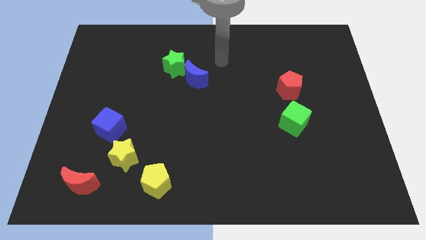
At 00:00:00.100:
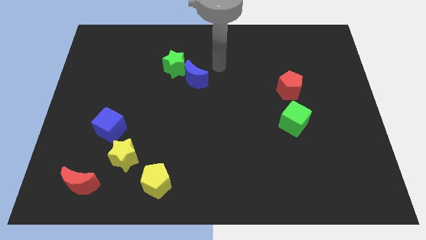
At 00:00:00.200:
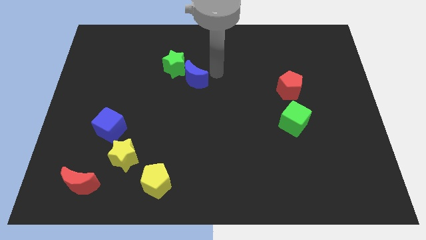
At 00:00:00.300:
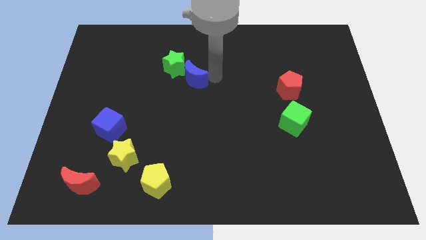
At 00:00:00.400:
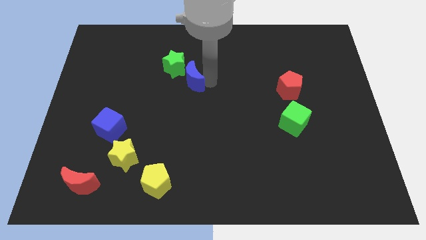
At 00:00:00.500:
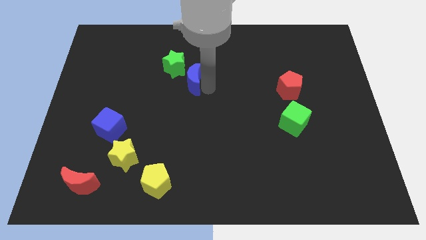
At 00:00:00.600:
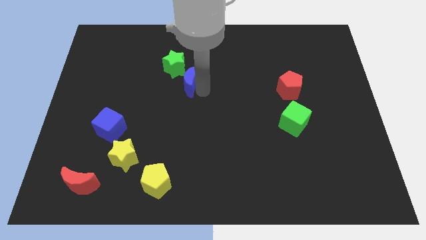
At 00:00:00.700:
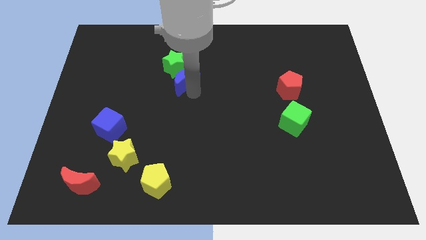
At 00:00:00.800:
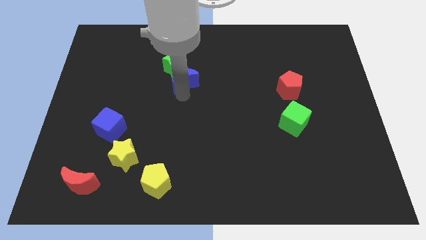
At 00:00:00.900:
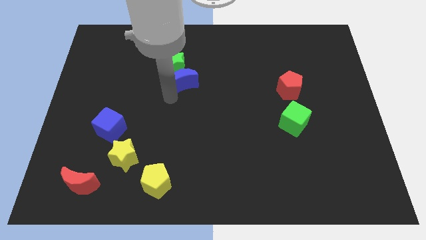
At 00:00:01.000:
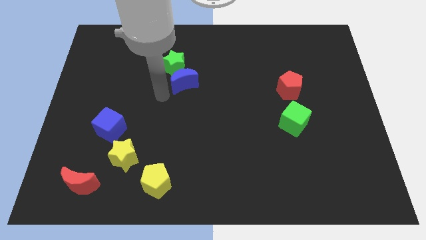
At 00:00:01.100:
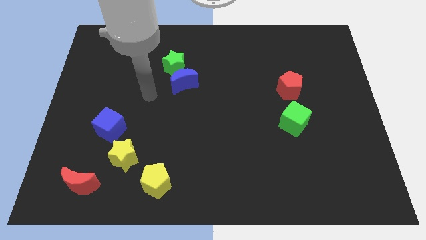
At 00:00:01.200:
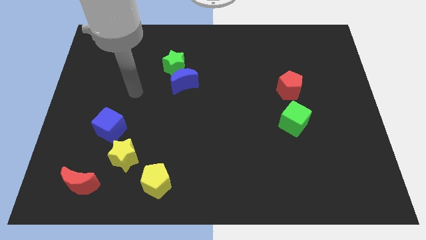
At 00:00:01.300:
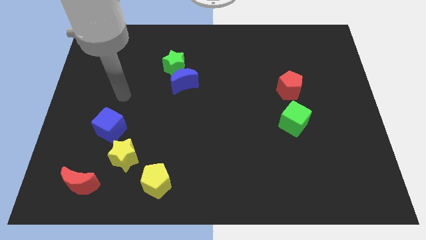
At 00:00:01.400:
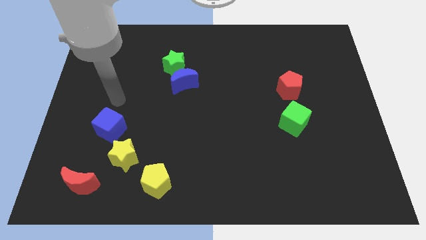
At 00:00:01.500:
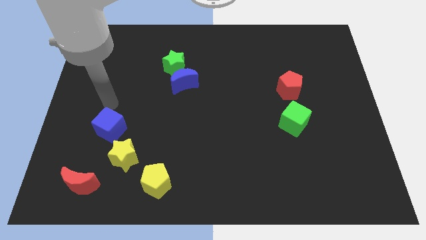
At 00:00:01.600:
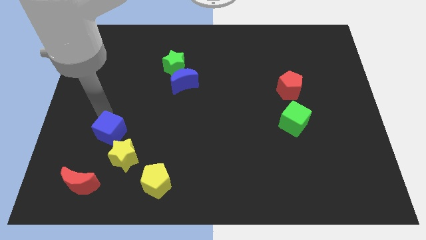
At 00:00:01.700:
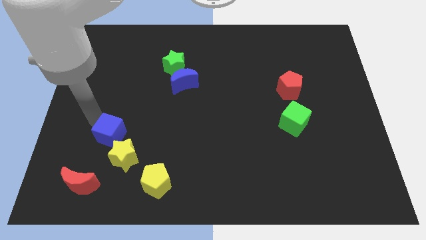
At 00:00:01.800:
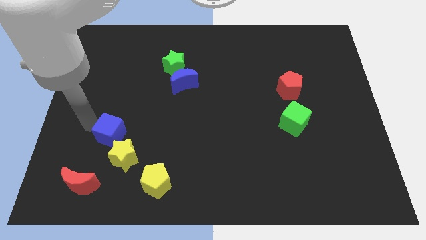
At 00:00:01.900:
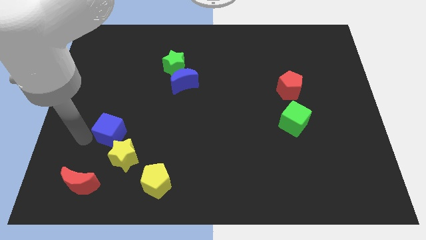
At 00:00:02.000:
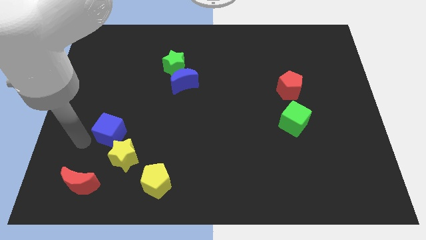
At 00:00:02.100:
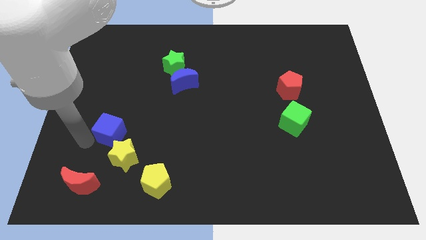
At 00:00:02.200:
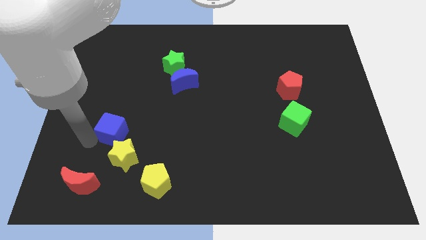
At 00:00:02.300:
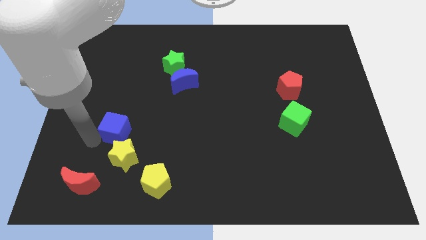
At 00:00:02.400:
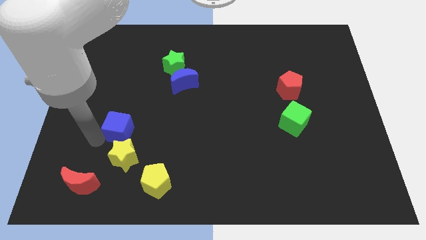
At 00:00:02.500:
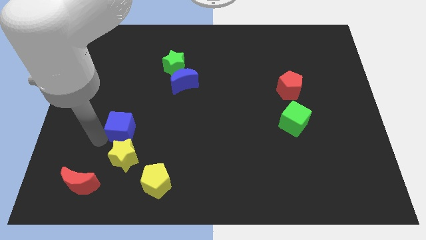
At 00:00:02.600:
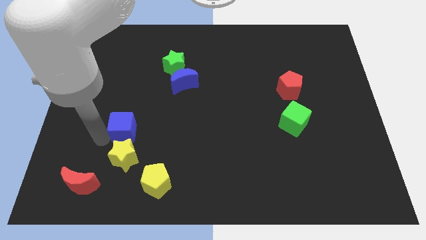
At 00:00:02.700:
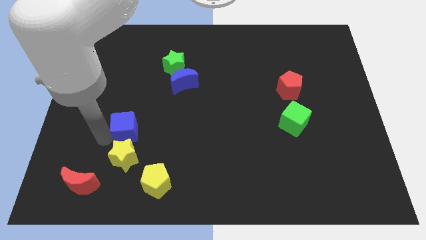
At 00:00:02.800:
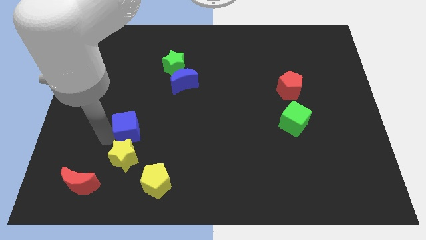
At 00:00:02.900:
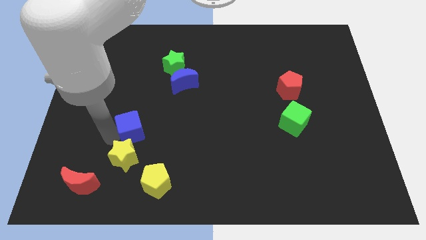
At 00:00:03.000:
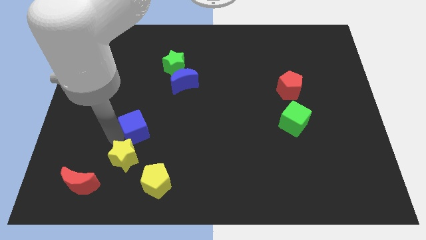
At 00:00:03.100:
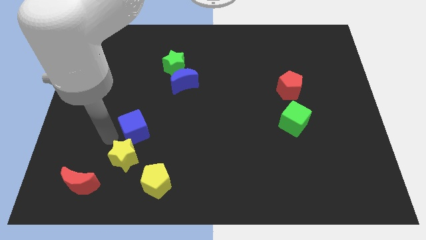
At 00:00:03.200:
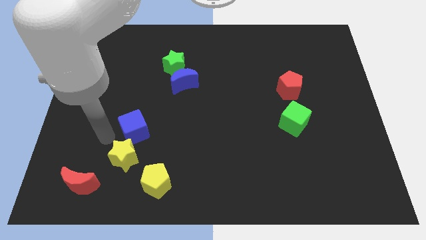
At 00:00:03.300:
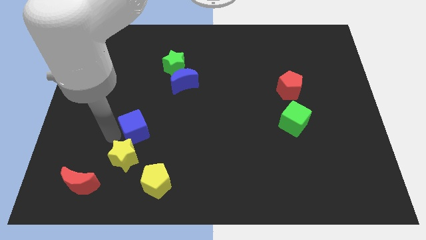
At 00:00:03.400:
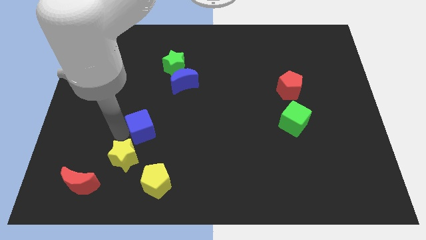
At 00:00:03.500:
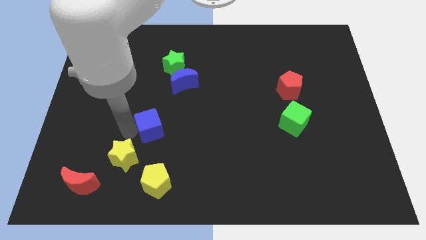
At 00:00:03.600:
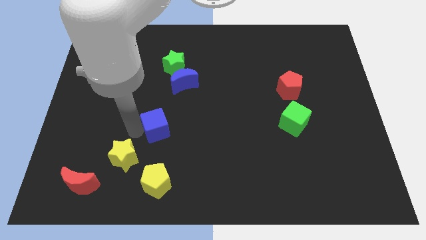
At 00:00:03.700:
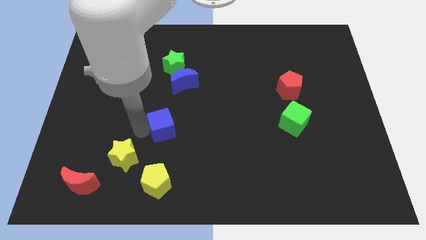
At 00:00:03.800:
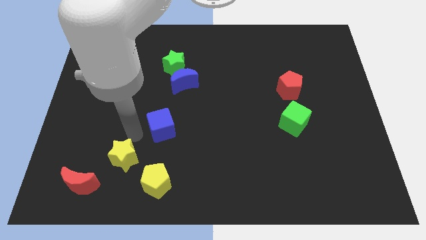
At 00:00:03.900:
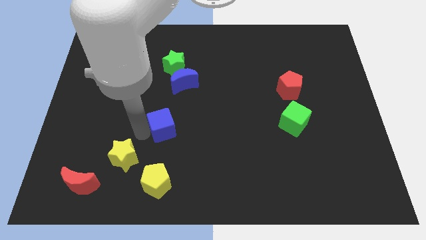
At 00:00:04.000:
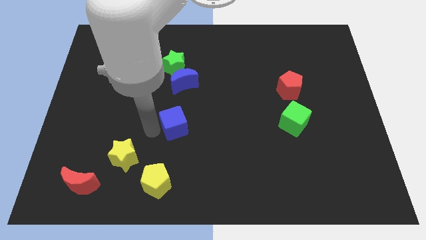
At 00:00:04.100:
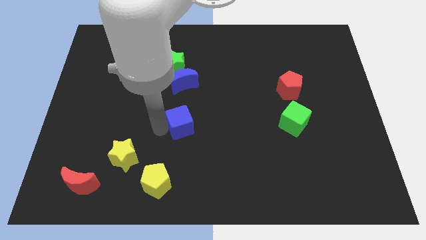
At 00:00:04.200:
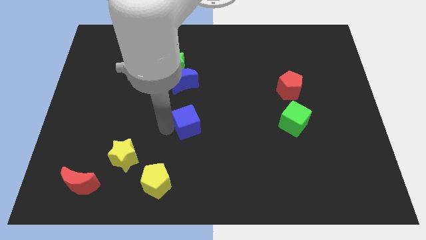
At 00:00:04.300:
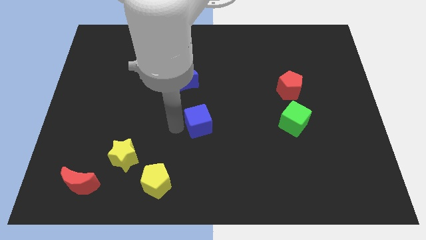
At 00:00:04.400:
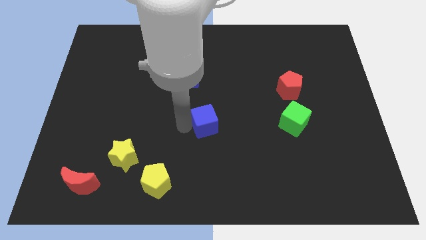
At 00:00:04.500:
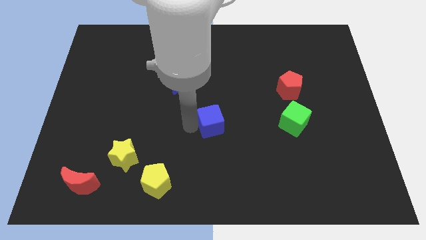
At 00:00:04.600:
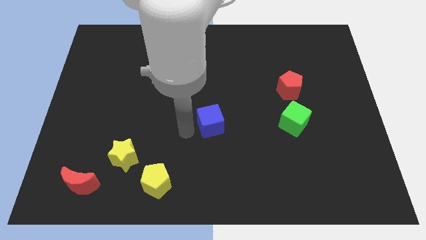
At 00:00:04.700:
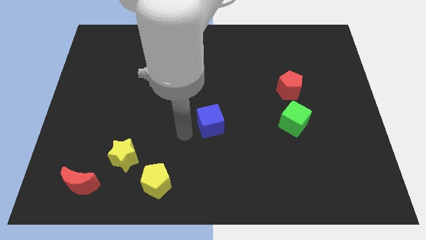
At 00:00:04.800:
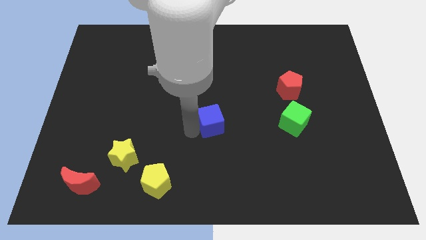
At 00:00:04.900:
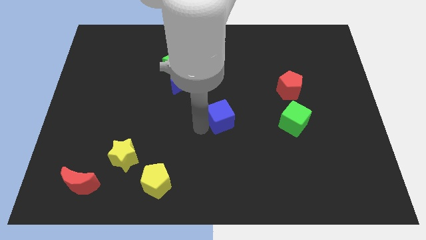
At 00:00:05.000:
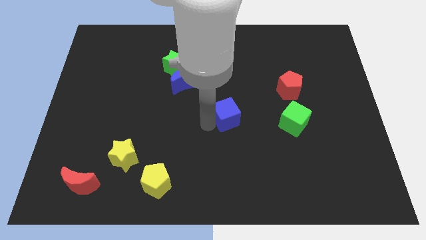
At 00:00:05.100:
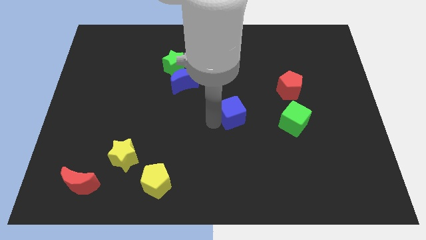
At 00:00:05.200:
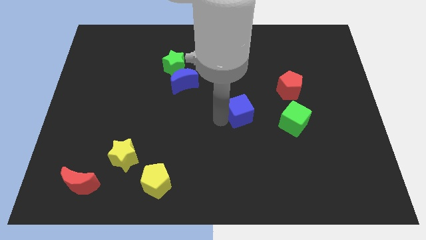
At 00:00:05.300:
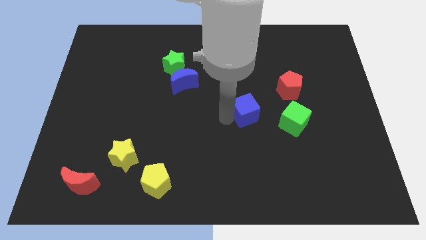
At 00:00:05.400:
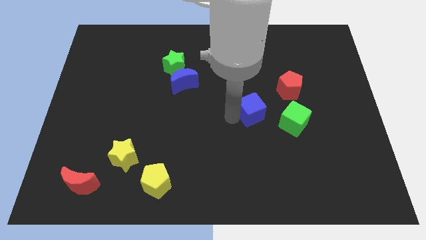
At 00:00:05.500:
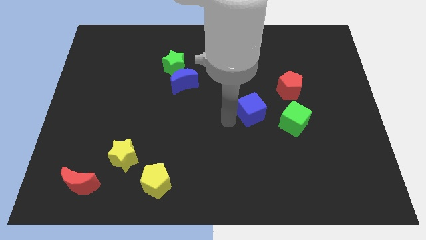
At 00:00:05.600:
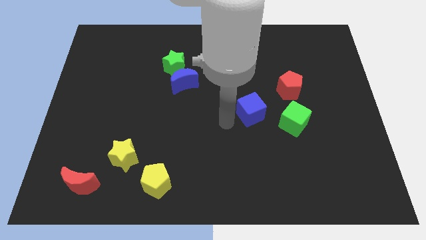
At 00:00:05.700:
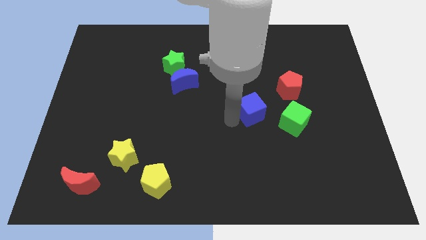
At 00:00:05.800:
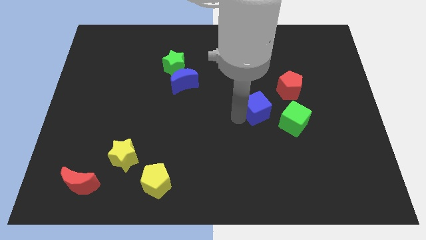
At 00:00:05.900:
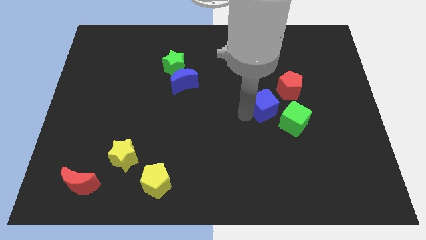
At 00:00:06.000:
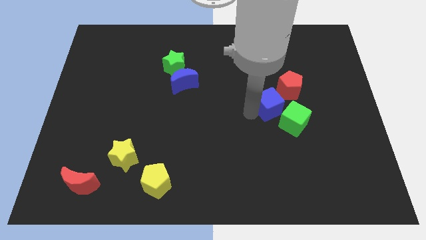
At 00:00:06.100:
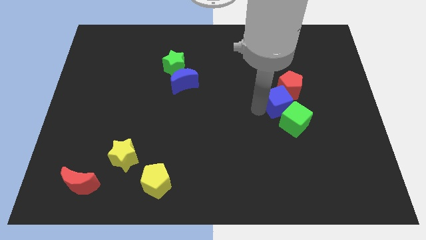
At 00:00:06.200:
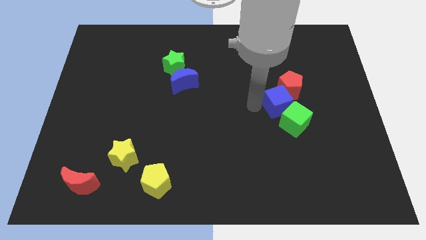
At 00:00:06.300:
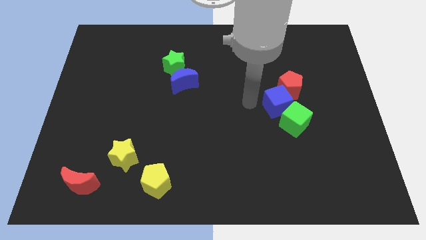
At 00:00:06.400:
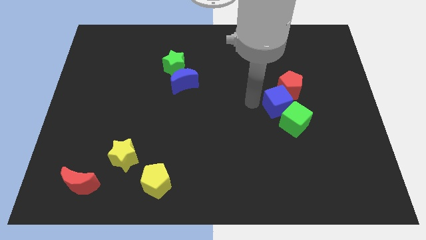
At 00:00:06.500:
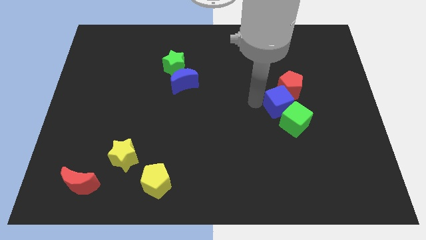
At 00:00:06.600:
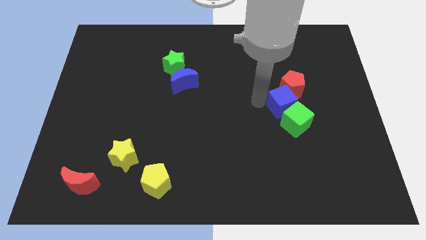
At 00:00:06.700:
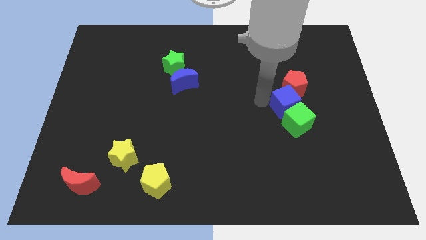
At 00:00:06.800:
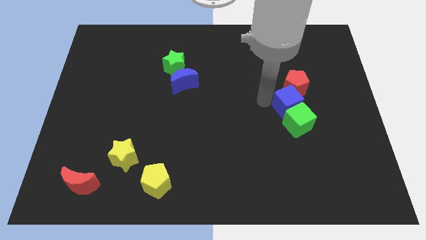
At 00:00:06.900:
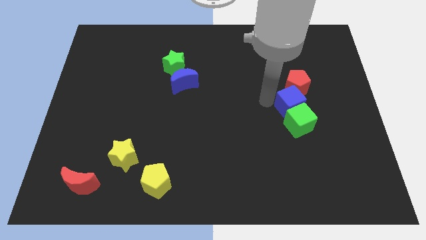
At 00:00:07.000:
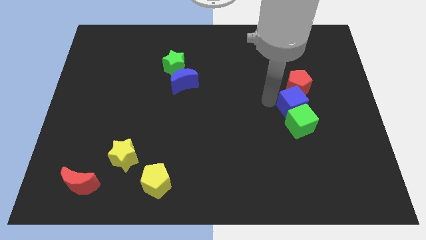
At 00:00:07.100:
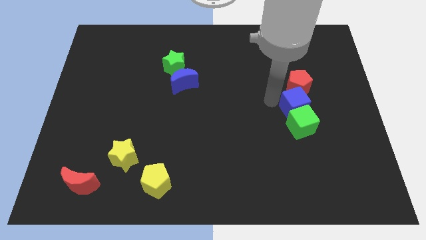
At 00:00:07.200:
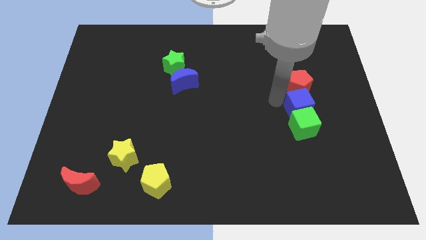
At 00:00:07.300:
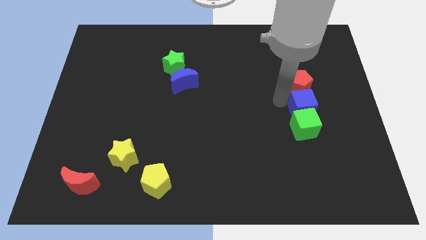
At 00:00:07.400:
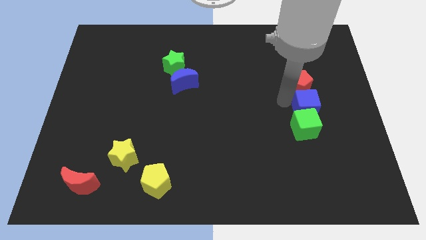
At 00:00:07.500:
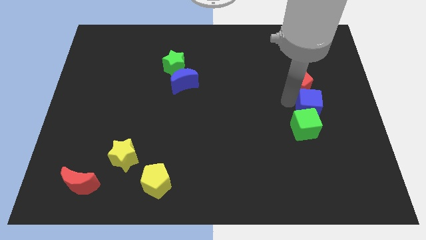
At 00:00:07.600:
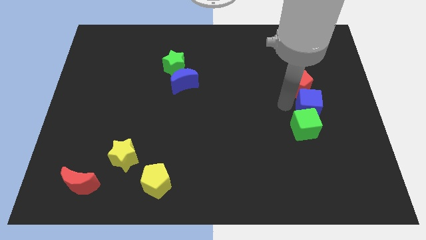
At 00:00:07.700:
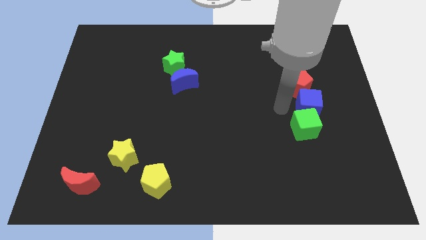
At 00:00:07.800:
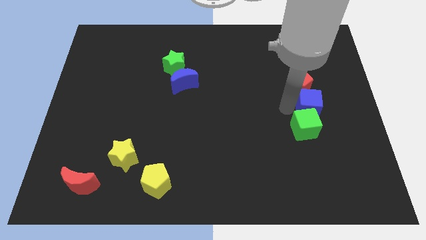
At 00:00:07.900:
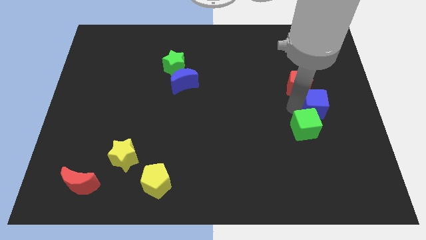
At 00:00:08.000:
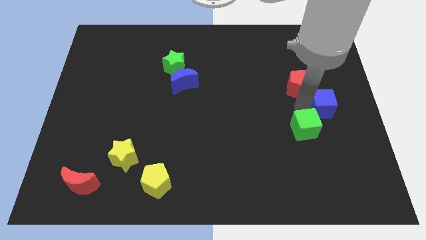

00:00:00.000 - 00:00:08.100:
push the blue cube to the right side
